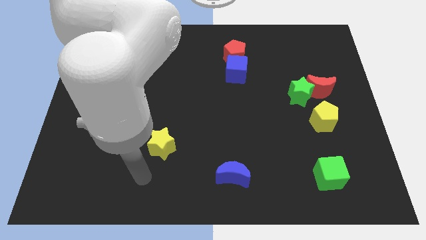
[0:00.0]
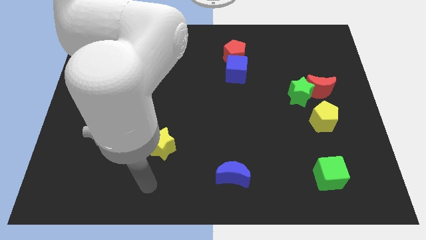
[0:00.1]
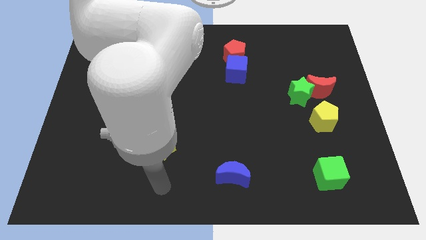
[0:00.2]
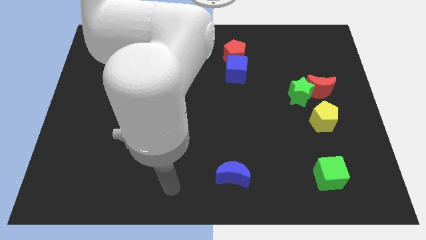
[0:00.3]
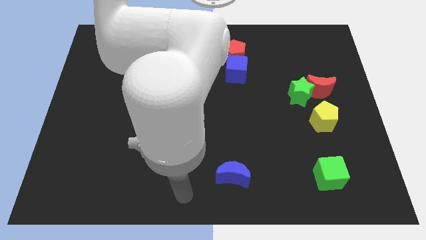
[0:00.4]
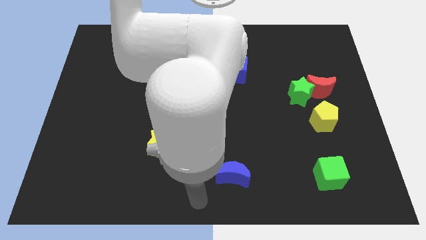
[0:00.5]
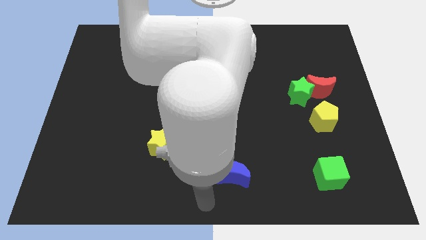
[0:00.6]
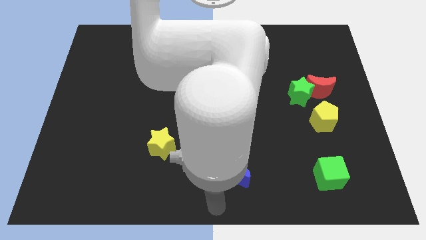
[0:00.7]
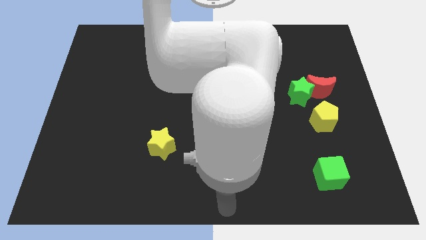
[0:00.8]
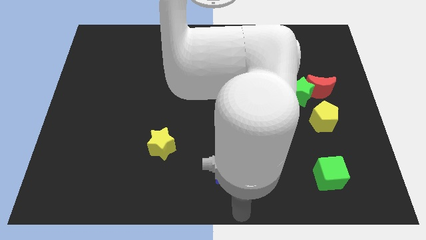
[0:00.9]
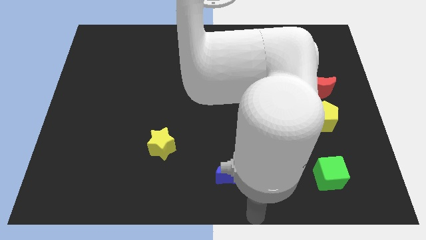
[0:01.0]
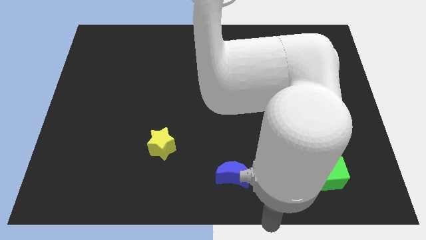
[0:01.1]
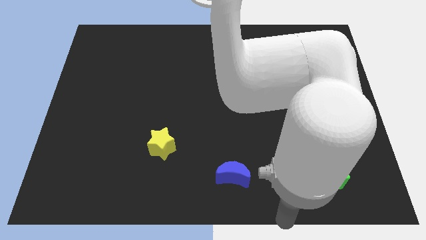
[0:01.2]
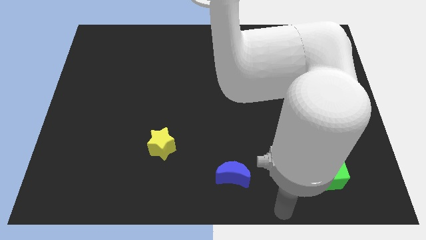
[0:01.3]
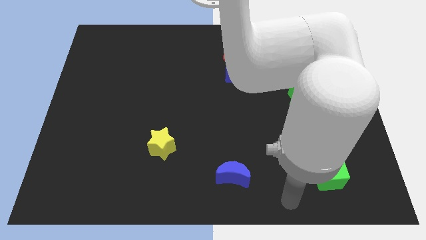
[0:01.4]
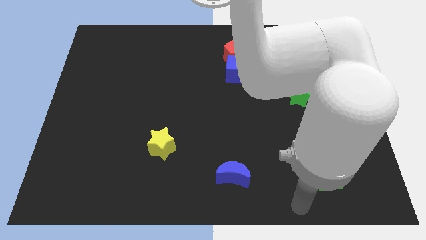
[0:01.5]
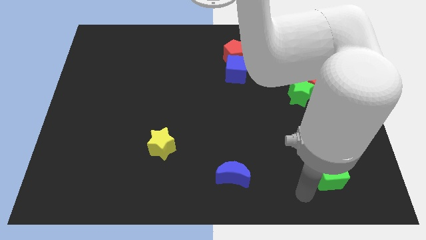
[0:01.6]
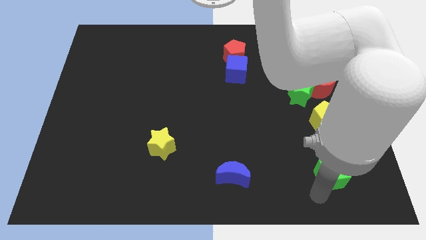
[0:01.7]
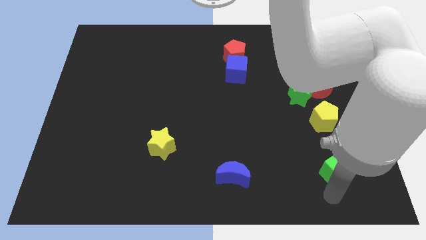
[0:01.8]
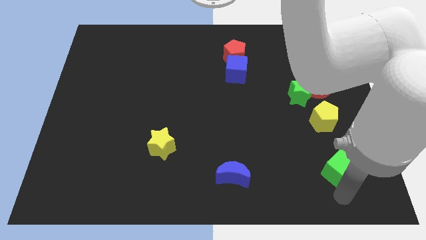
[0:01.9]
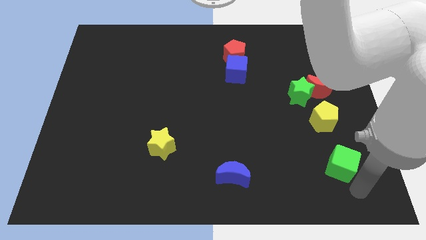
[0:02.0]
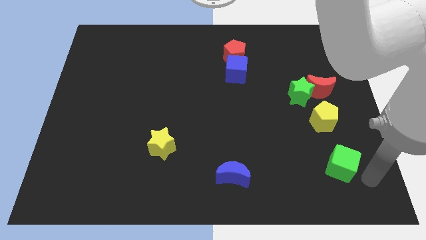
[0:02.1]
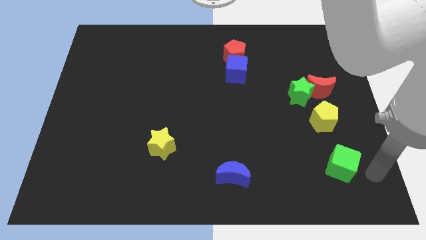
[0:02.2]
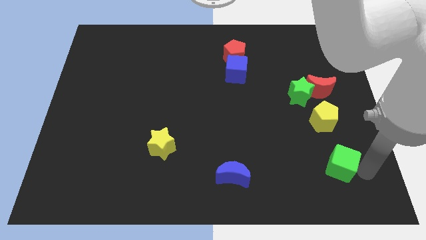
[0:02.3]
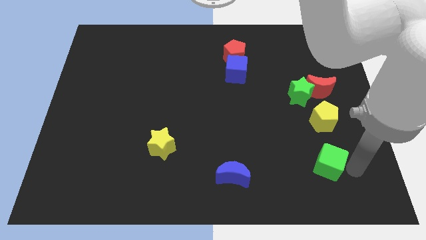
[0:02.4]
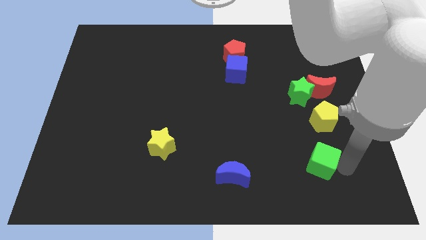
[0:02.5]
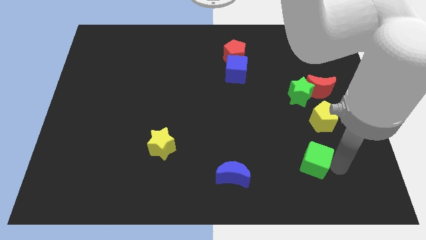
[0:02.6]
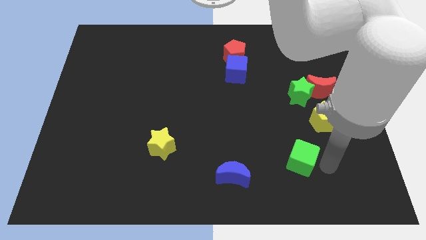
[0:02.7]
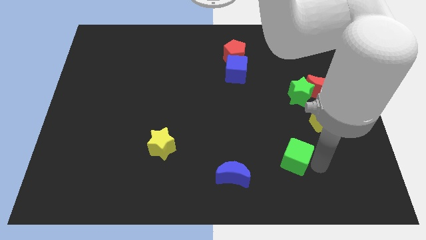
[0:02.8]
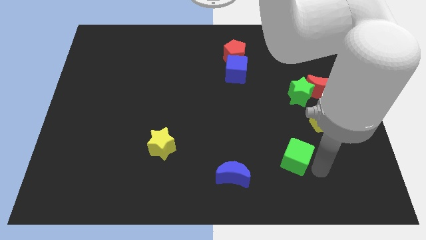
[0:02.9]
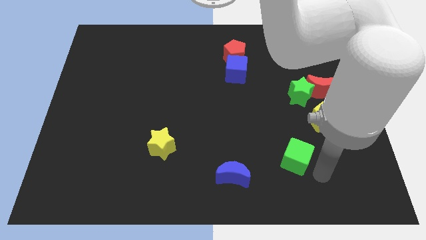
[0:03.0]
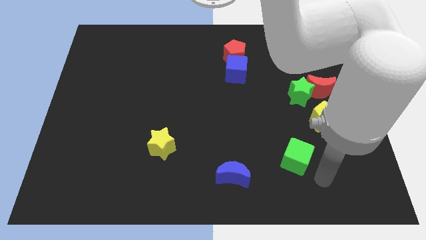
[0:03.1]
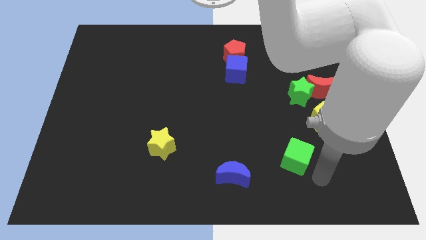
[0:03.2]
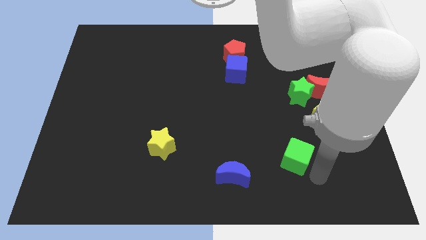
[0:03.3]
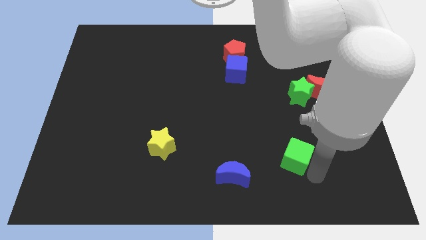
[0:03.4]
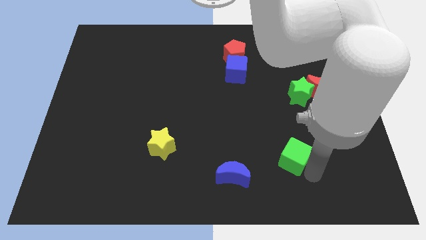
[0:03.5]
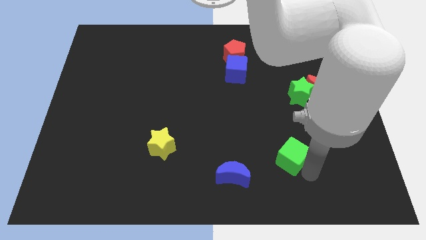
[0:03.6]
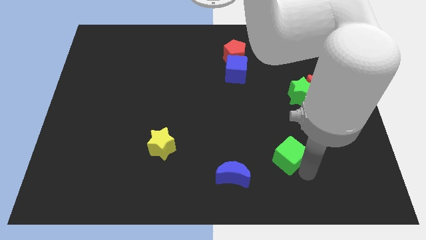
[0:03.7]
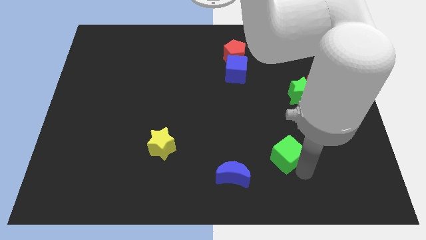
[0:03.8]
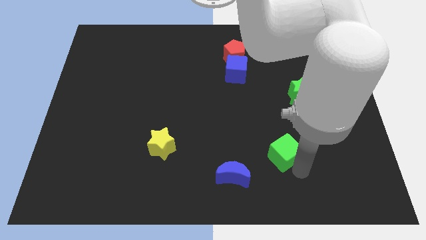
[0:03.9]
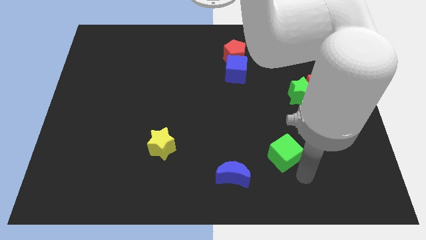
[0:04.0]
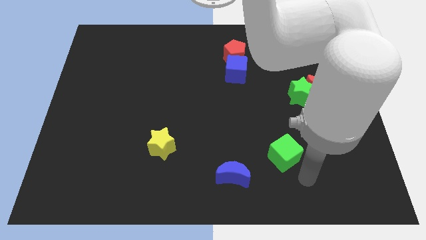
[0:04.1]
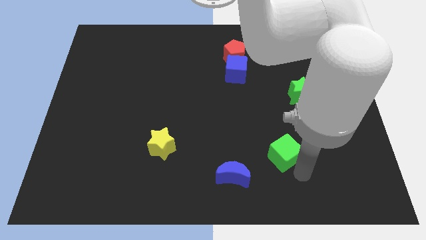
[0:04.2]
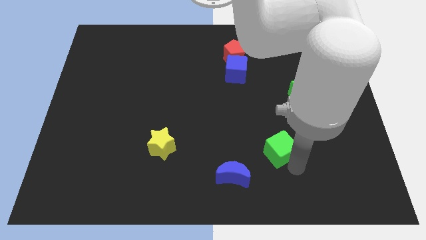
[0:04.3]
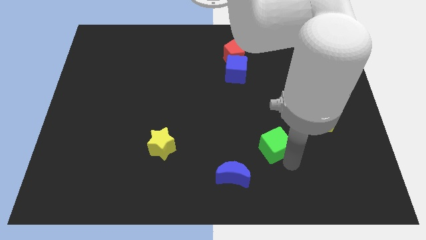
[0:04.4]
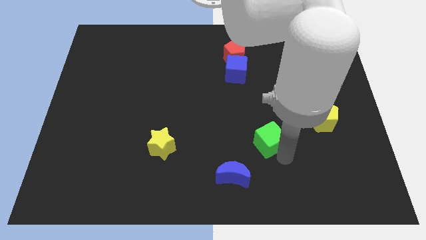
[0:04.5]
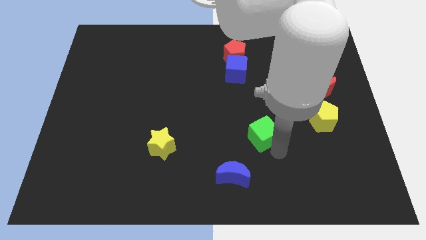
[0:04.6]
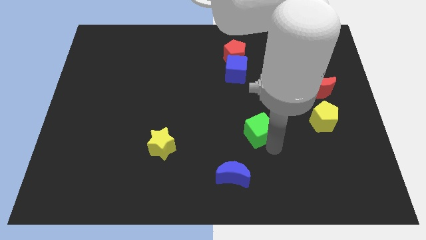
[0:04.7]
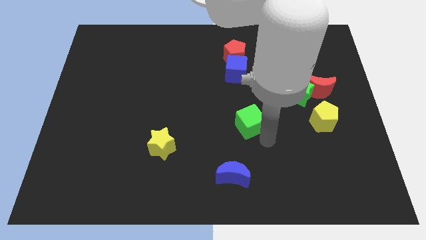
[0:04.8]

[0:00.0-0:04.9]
slide the green cube to the center

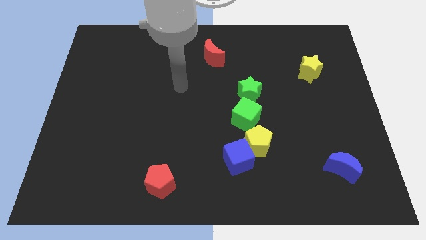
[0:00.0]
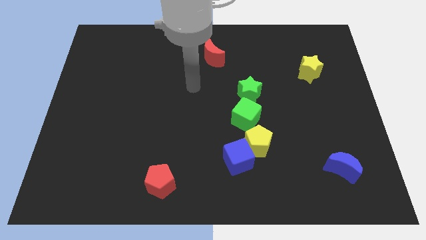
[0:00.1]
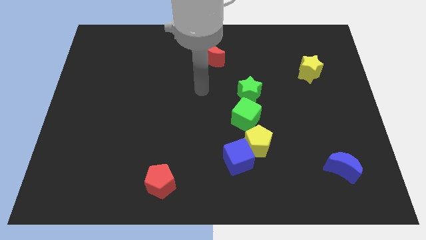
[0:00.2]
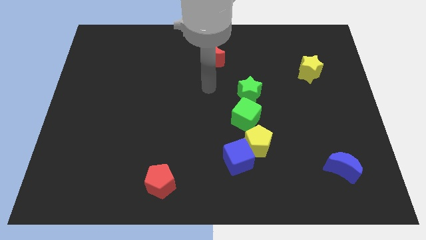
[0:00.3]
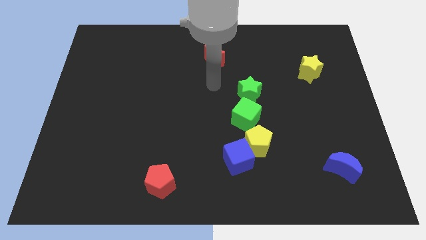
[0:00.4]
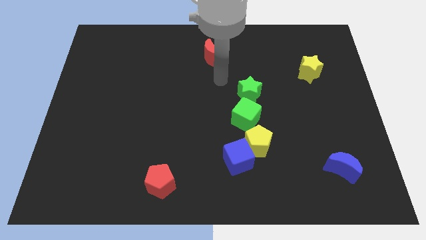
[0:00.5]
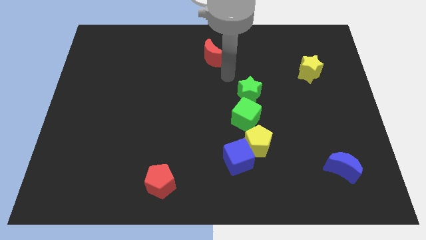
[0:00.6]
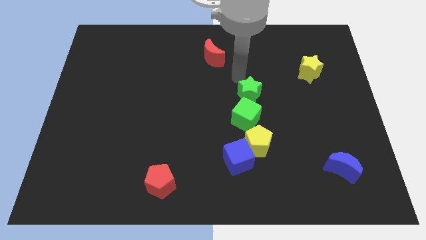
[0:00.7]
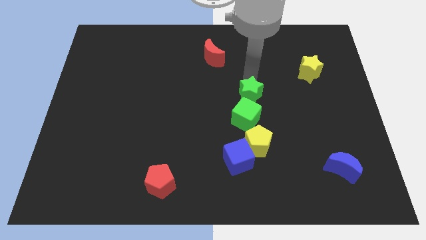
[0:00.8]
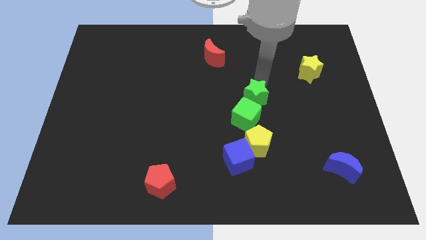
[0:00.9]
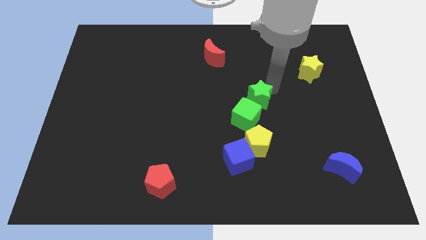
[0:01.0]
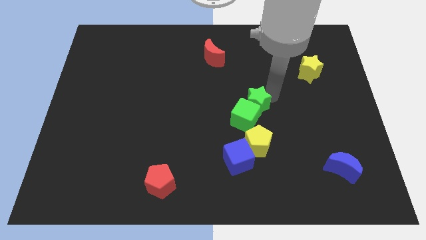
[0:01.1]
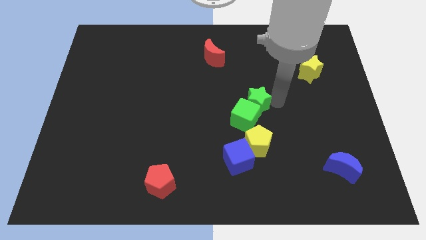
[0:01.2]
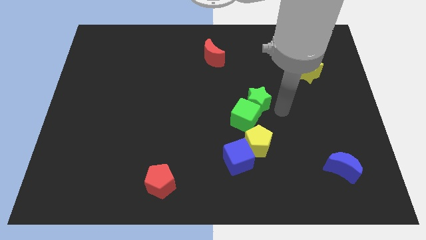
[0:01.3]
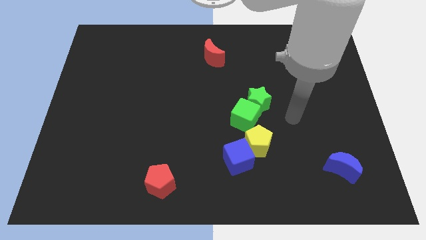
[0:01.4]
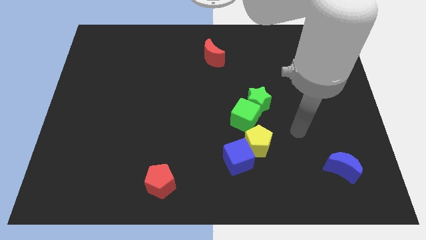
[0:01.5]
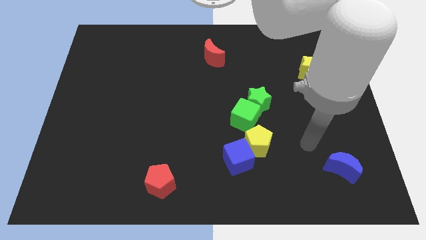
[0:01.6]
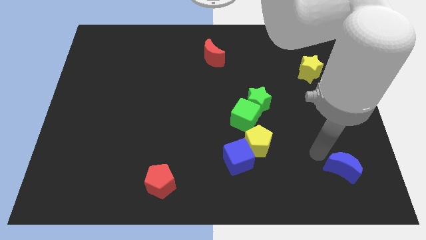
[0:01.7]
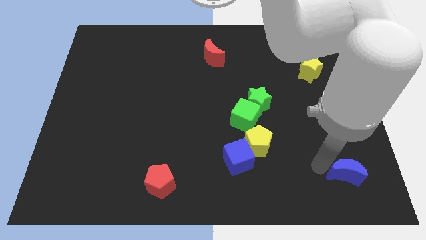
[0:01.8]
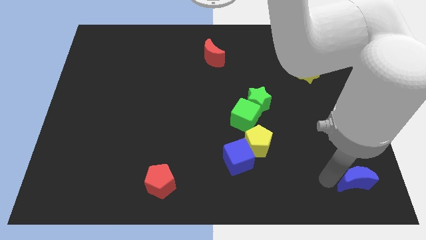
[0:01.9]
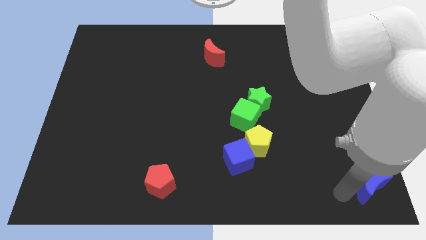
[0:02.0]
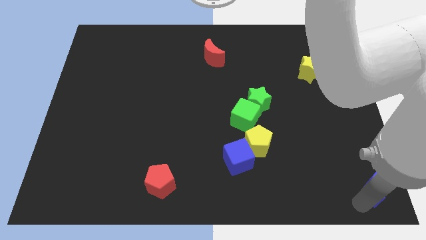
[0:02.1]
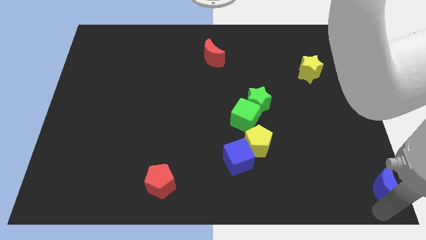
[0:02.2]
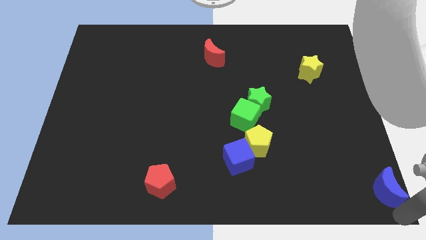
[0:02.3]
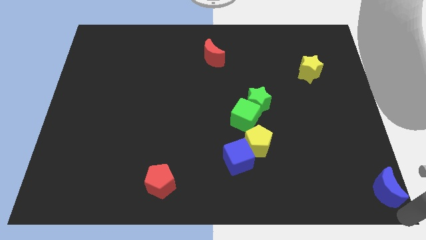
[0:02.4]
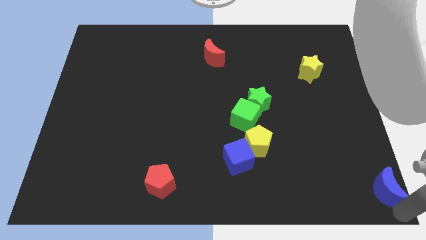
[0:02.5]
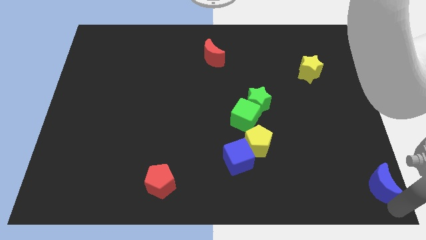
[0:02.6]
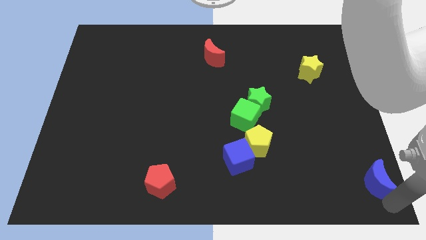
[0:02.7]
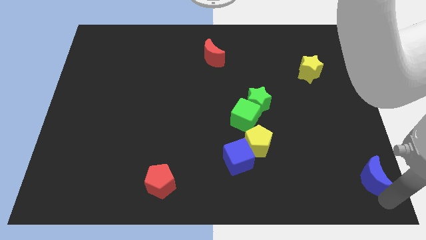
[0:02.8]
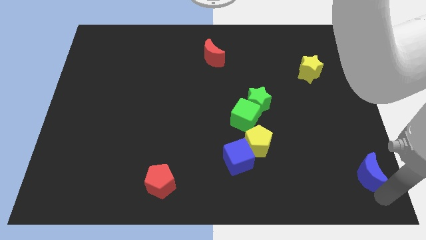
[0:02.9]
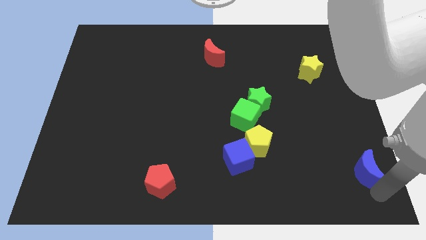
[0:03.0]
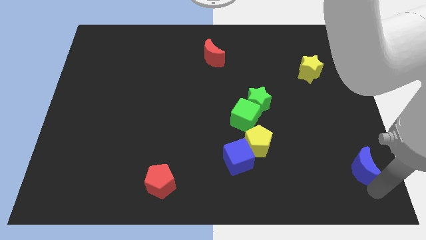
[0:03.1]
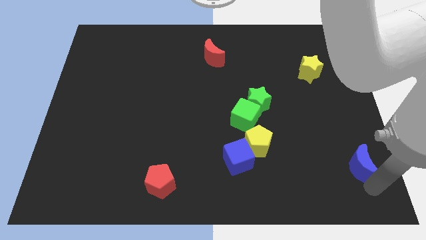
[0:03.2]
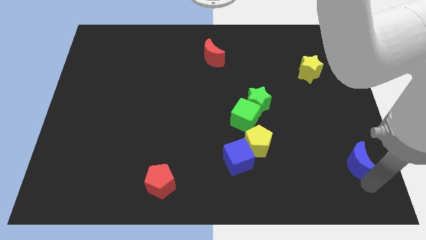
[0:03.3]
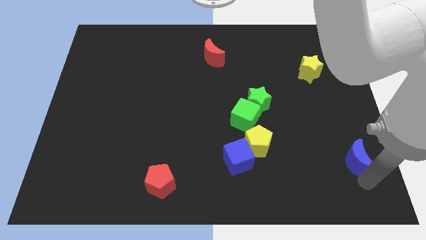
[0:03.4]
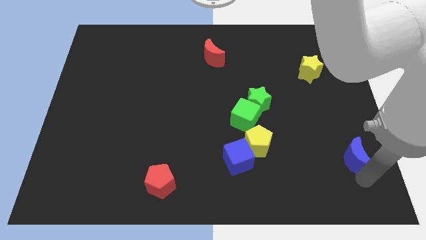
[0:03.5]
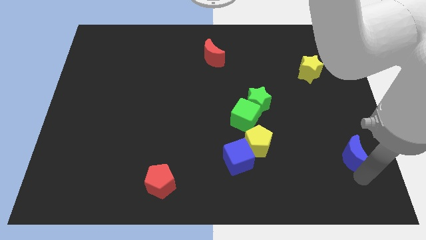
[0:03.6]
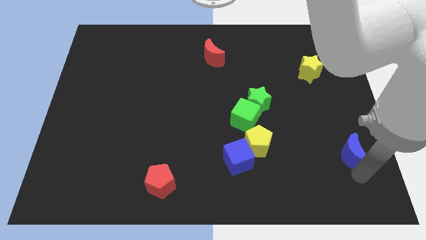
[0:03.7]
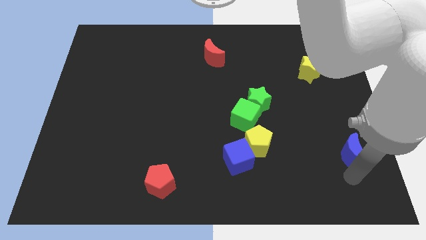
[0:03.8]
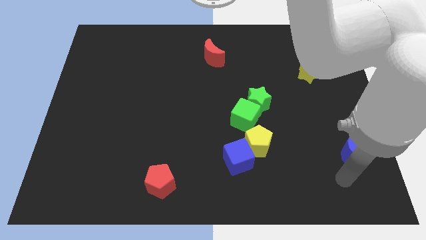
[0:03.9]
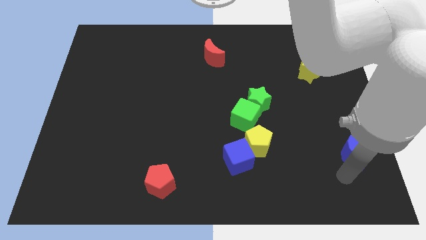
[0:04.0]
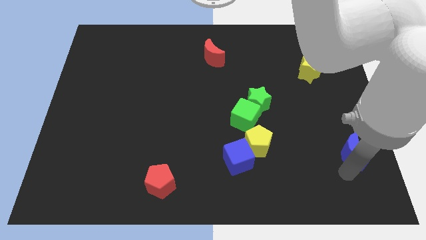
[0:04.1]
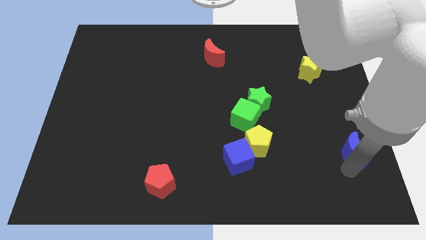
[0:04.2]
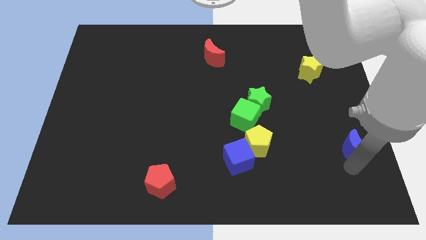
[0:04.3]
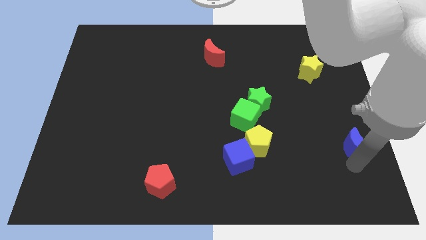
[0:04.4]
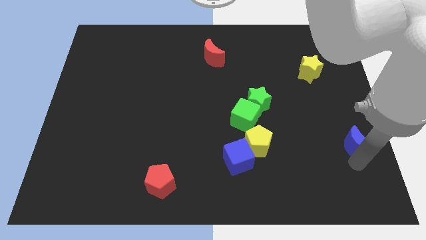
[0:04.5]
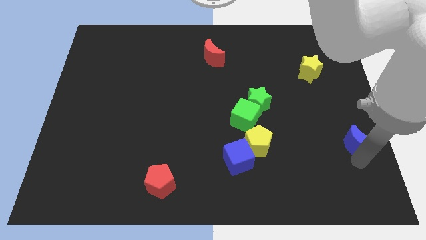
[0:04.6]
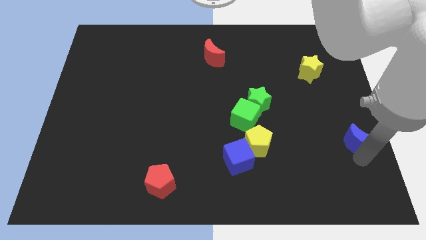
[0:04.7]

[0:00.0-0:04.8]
slide the blue moon to the right side
